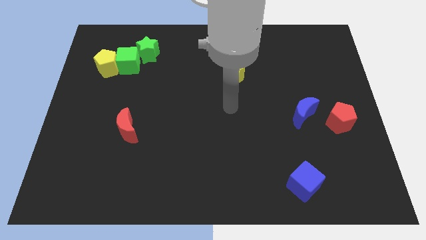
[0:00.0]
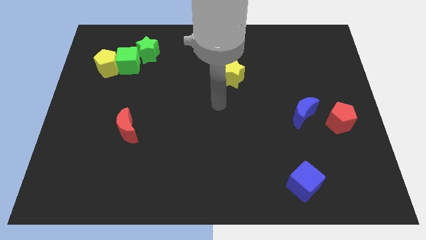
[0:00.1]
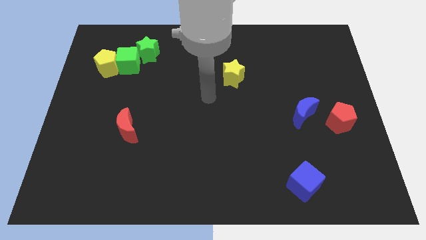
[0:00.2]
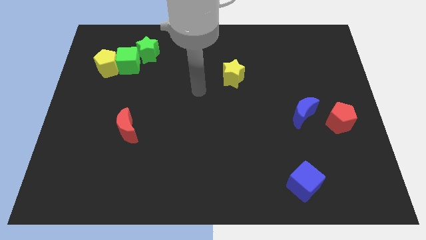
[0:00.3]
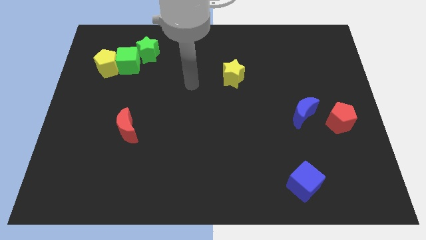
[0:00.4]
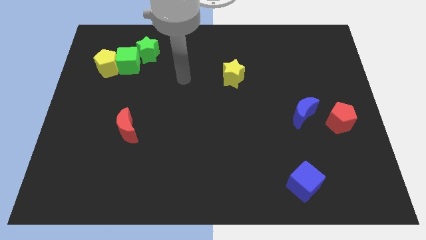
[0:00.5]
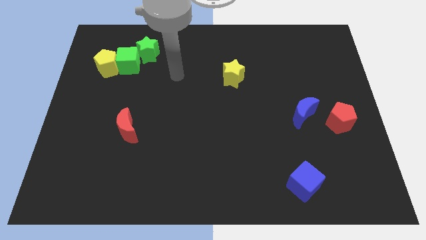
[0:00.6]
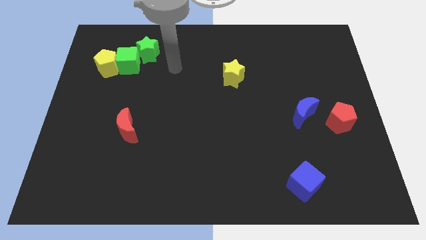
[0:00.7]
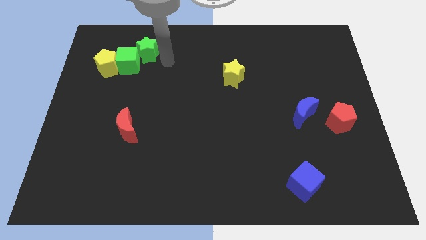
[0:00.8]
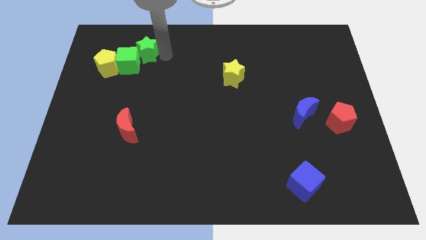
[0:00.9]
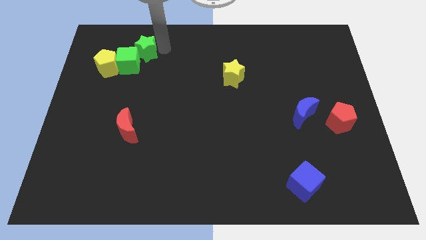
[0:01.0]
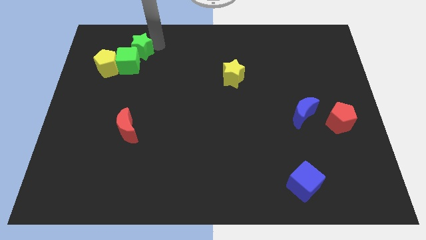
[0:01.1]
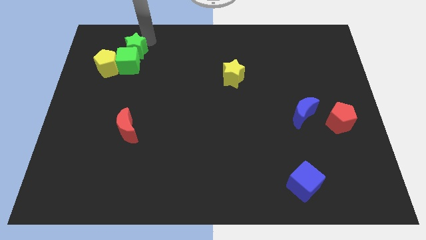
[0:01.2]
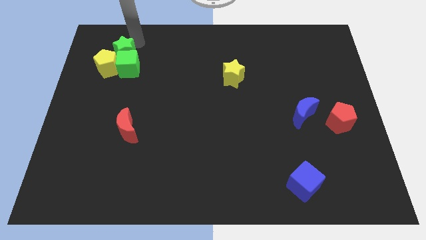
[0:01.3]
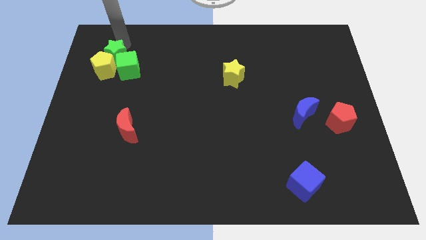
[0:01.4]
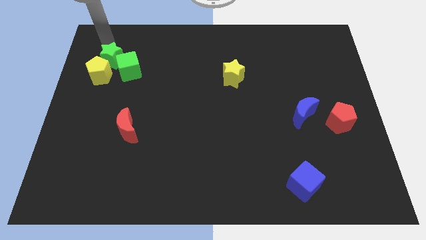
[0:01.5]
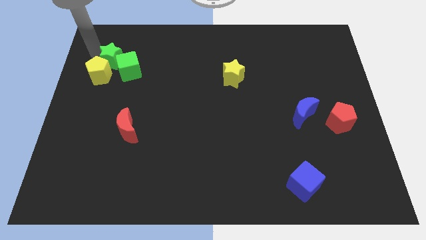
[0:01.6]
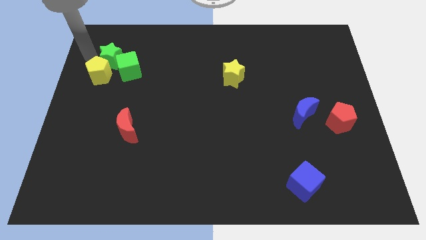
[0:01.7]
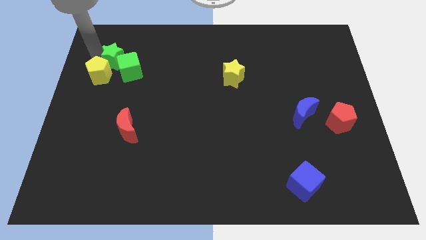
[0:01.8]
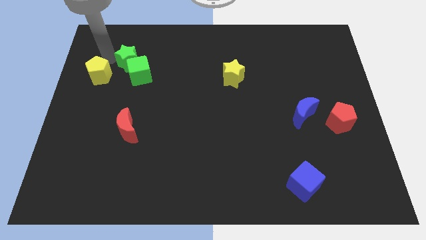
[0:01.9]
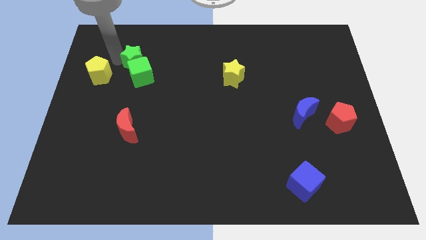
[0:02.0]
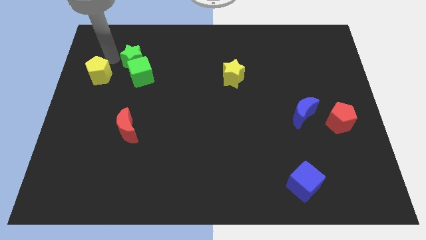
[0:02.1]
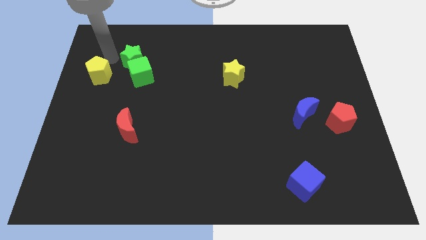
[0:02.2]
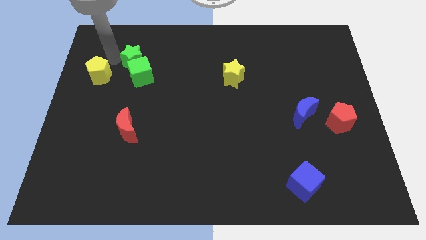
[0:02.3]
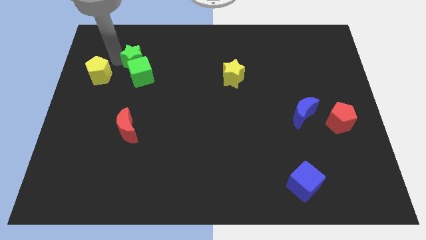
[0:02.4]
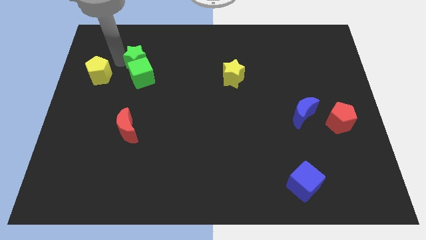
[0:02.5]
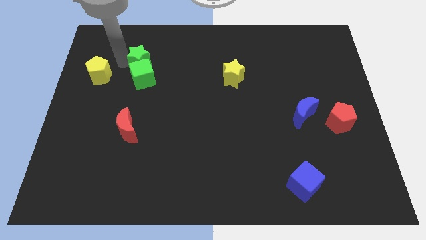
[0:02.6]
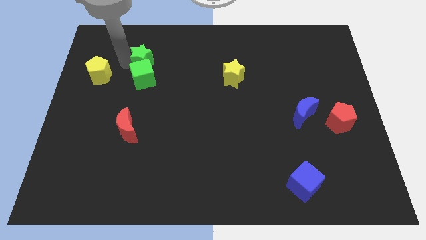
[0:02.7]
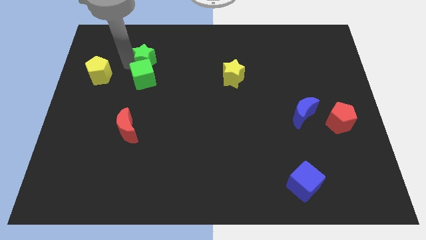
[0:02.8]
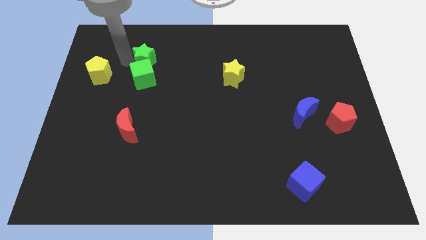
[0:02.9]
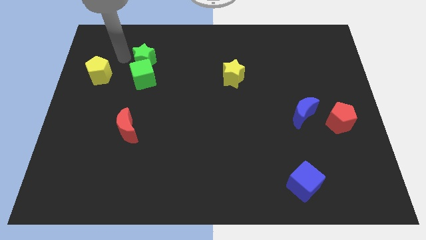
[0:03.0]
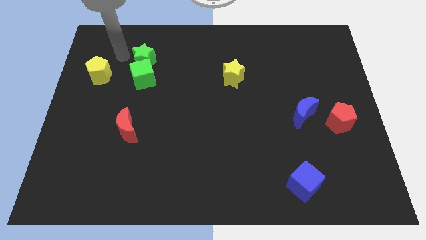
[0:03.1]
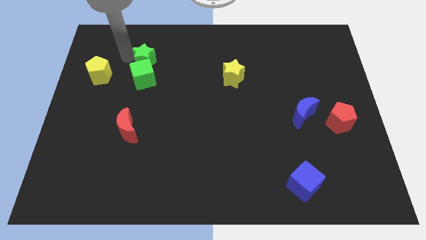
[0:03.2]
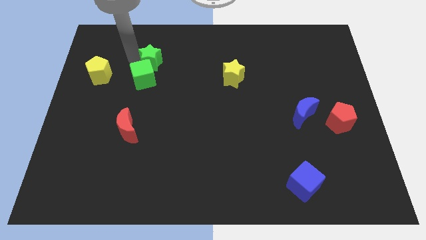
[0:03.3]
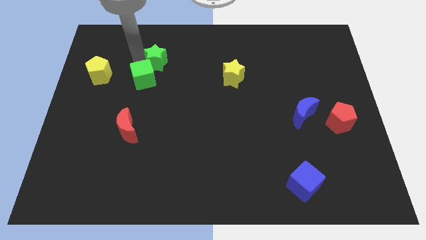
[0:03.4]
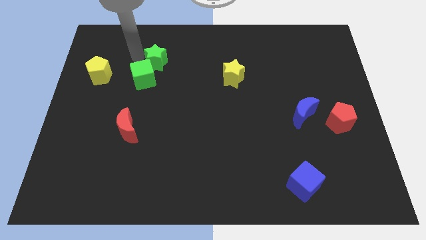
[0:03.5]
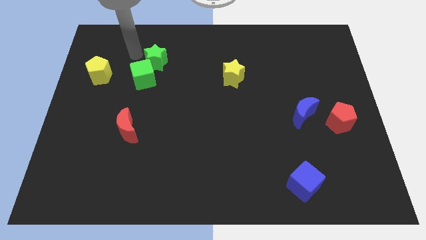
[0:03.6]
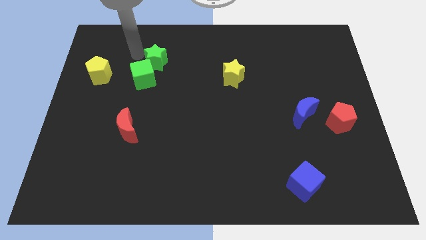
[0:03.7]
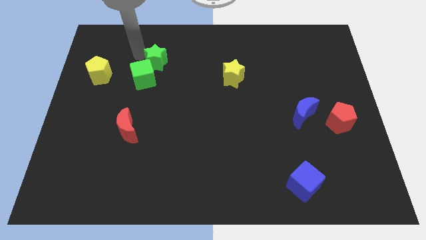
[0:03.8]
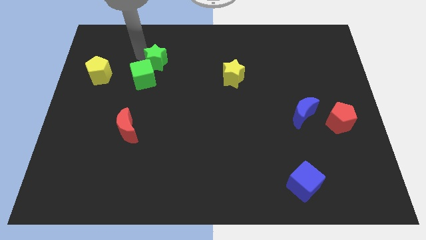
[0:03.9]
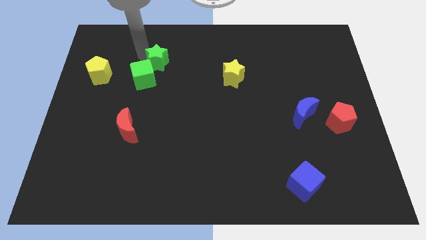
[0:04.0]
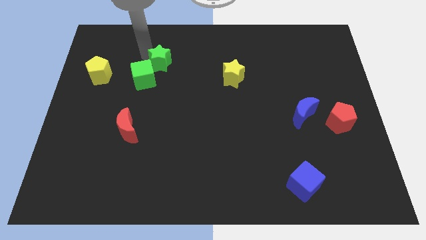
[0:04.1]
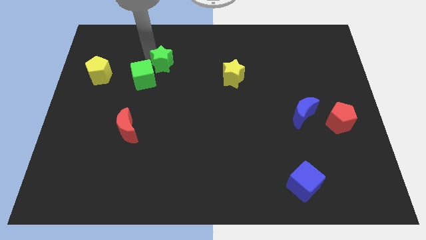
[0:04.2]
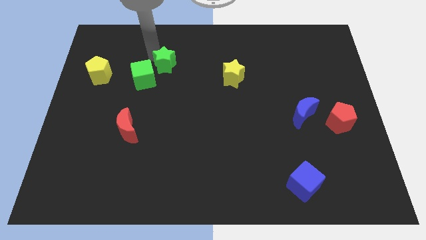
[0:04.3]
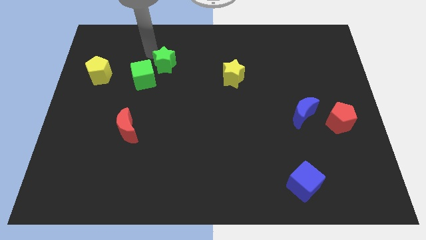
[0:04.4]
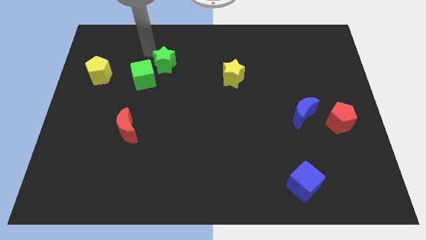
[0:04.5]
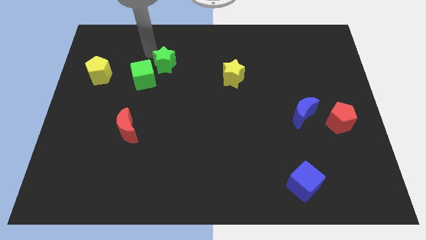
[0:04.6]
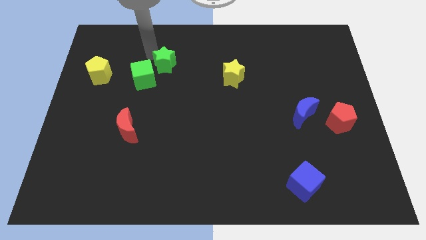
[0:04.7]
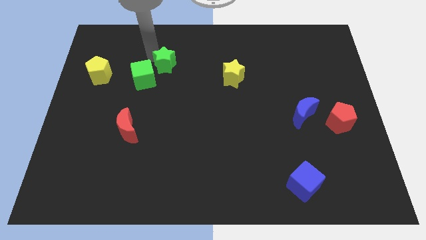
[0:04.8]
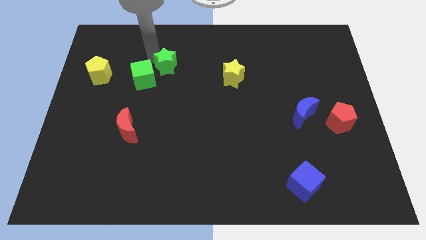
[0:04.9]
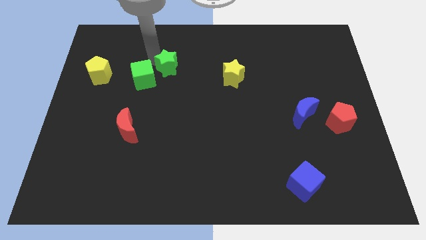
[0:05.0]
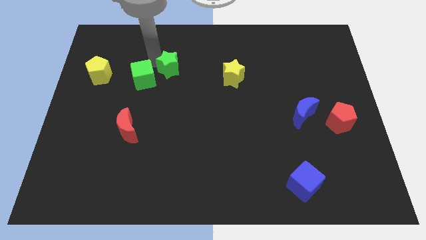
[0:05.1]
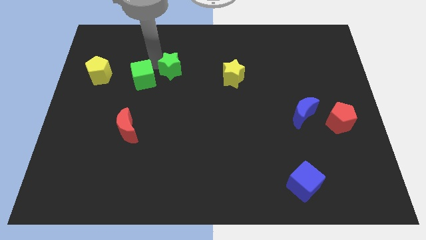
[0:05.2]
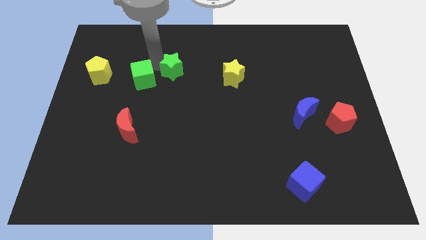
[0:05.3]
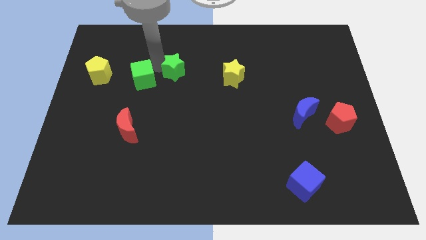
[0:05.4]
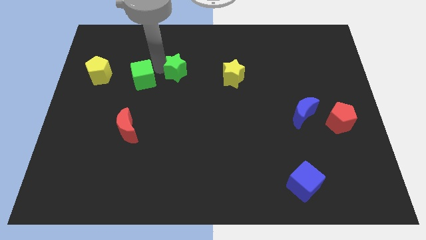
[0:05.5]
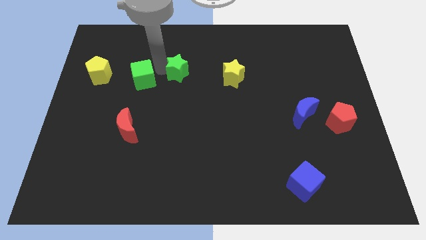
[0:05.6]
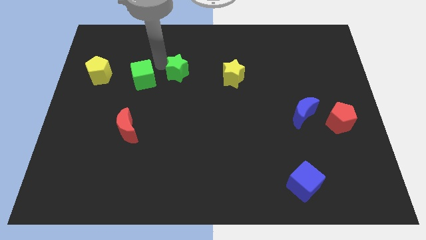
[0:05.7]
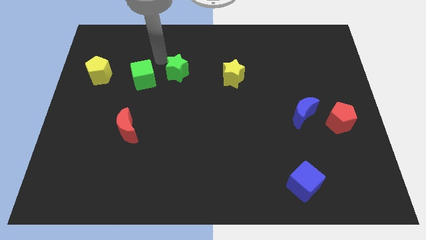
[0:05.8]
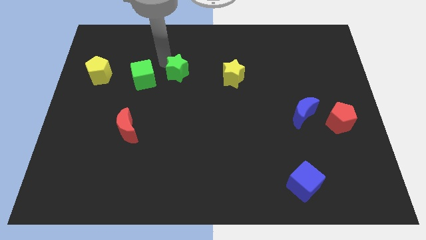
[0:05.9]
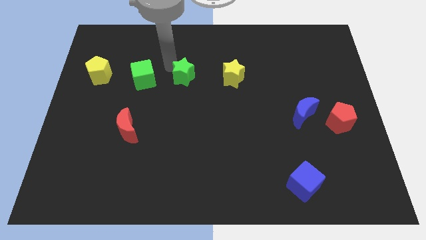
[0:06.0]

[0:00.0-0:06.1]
push the green star to the middle
